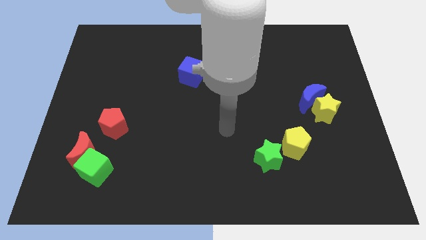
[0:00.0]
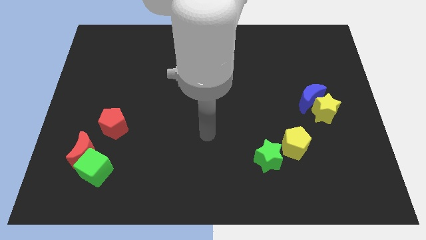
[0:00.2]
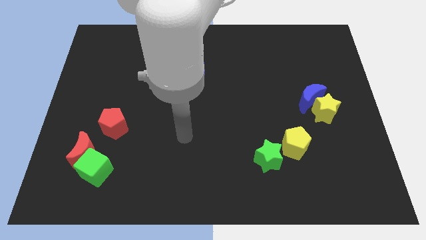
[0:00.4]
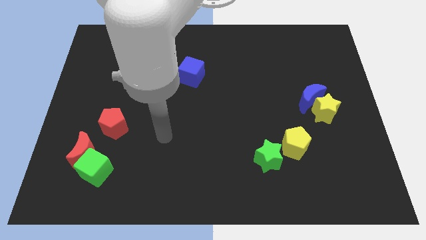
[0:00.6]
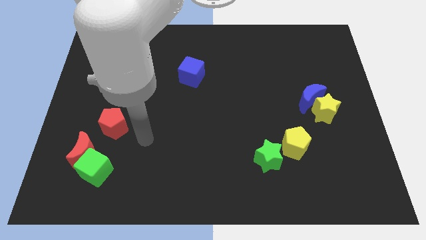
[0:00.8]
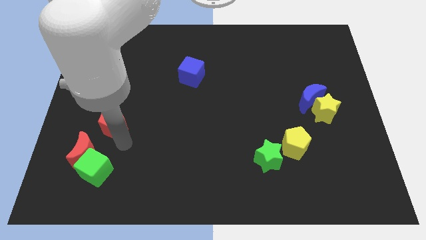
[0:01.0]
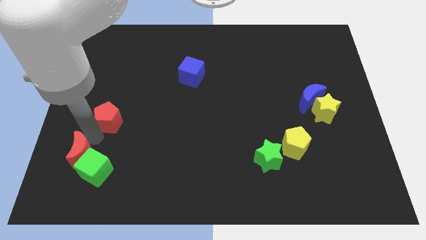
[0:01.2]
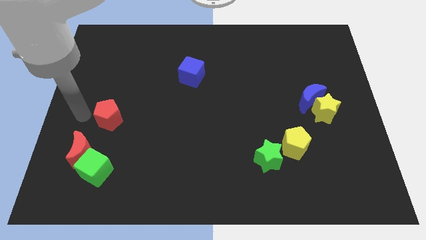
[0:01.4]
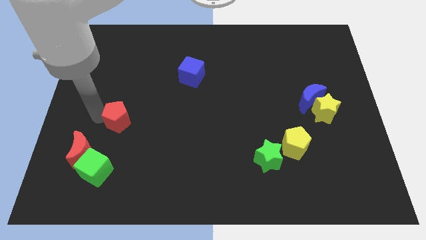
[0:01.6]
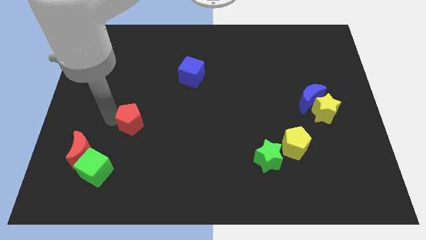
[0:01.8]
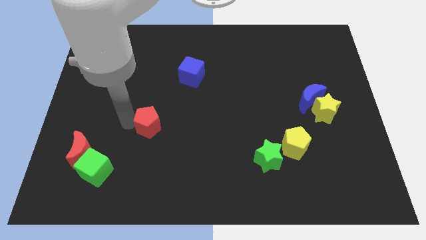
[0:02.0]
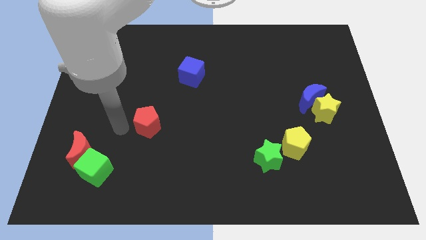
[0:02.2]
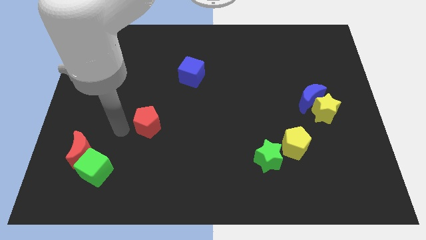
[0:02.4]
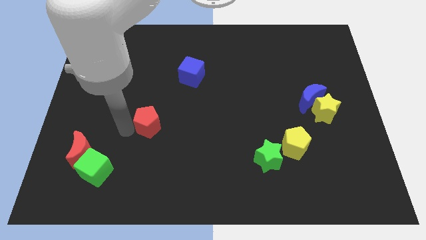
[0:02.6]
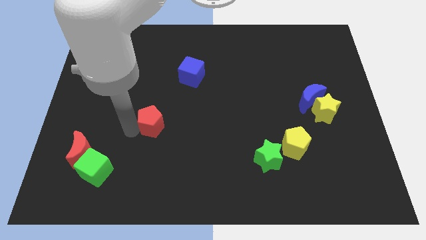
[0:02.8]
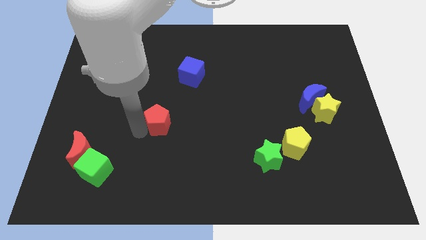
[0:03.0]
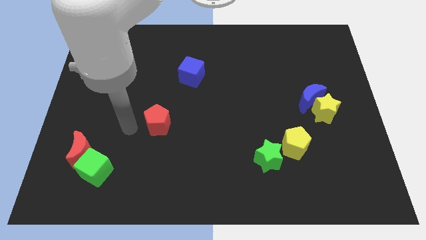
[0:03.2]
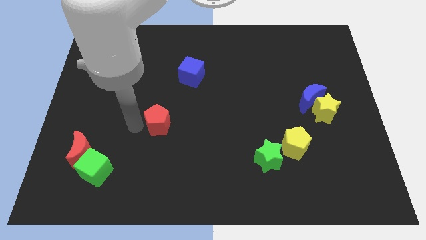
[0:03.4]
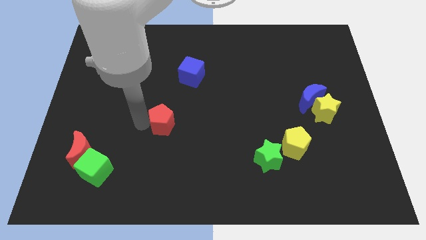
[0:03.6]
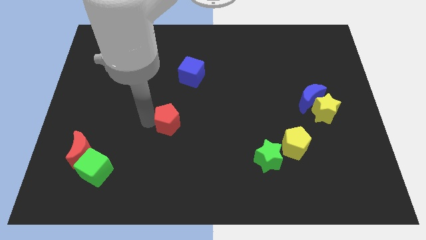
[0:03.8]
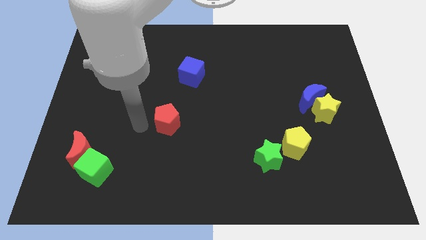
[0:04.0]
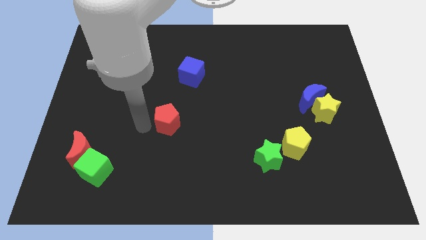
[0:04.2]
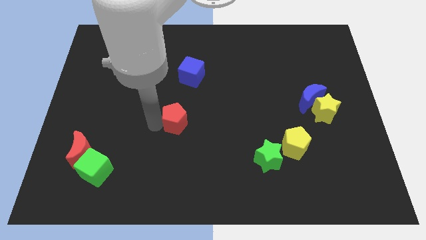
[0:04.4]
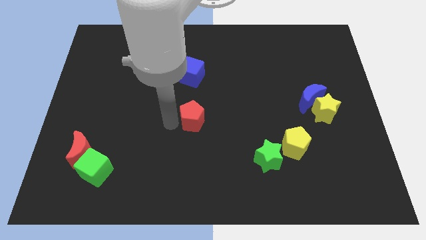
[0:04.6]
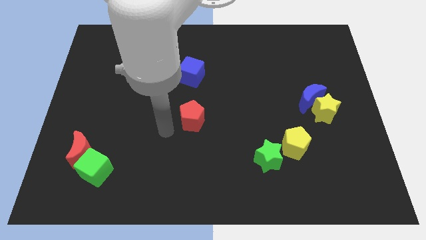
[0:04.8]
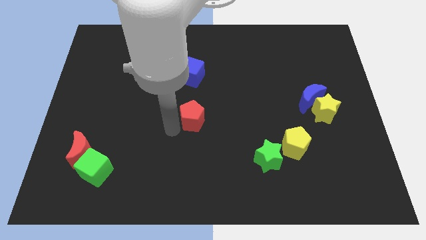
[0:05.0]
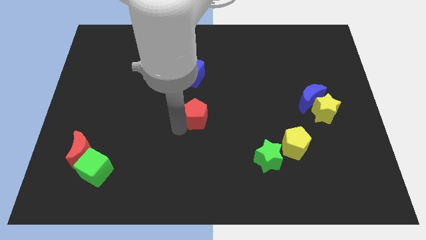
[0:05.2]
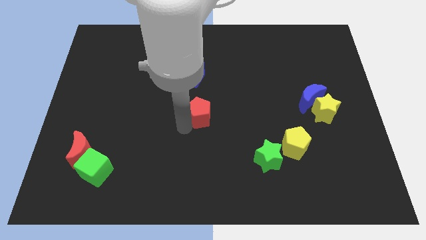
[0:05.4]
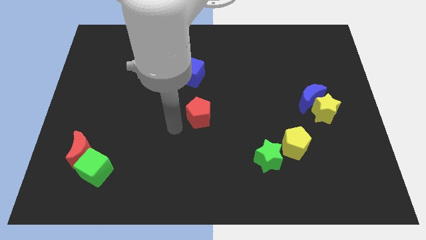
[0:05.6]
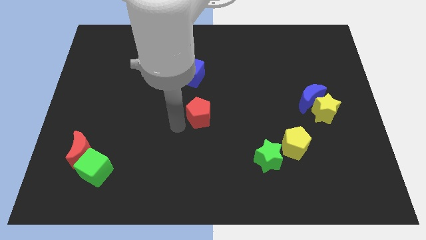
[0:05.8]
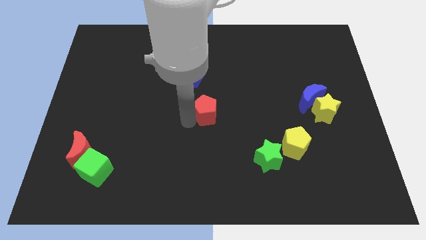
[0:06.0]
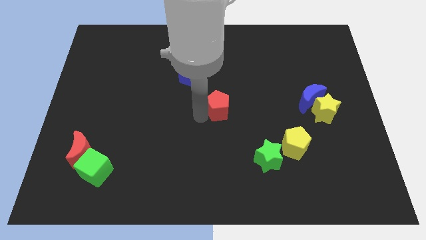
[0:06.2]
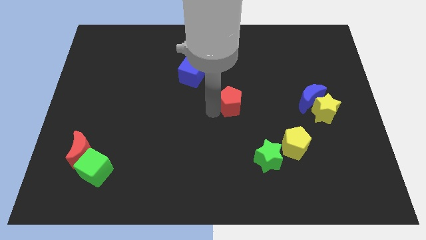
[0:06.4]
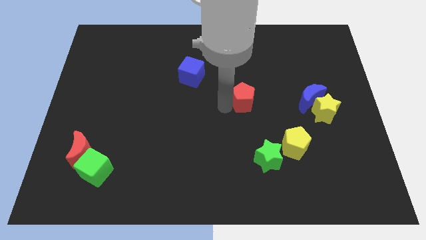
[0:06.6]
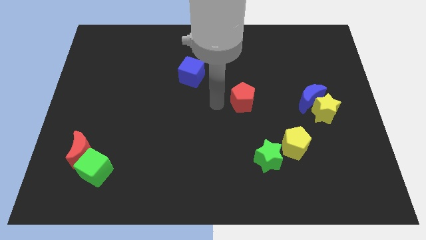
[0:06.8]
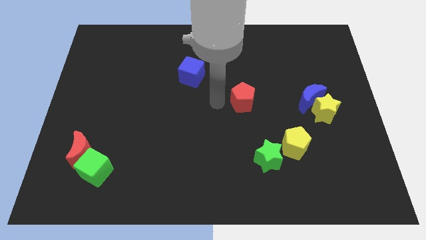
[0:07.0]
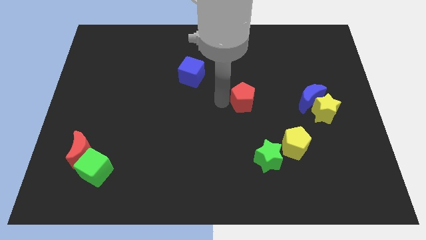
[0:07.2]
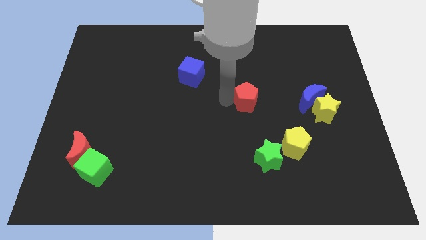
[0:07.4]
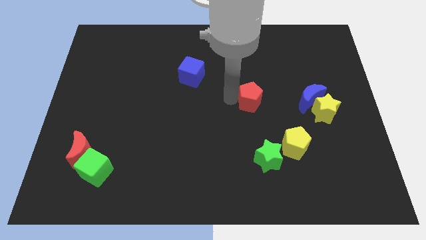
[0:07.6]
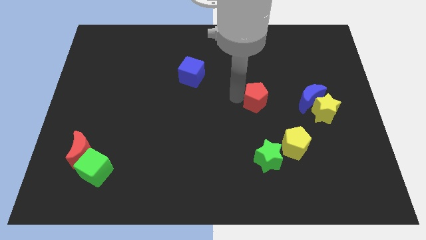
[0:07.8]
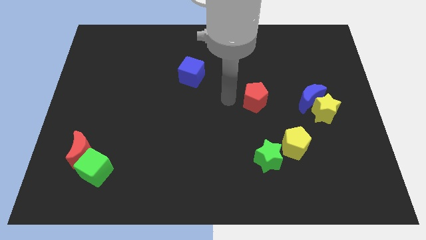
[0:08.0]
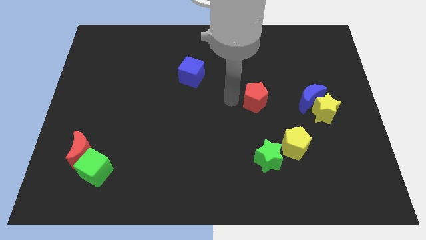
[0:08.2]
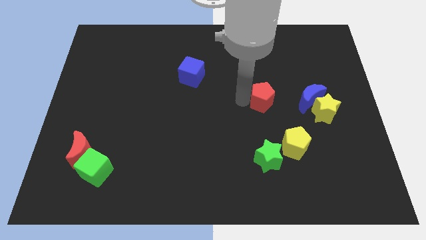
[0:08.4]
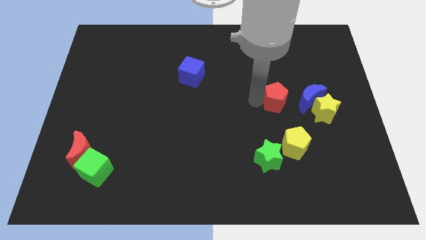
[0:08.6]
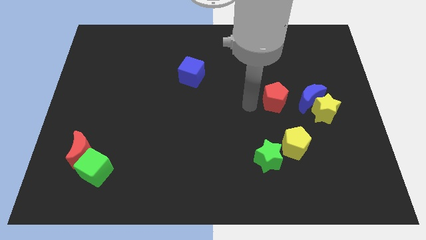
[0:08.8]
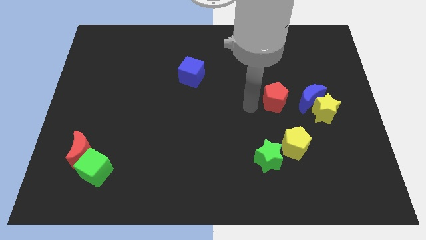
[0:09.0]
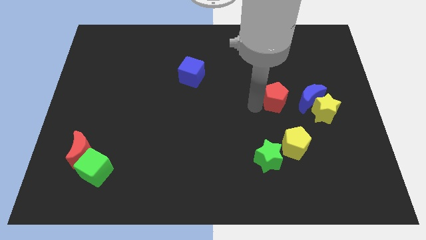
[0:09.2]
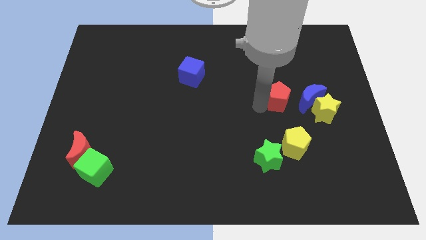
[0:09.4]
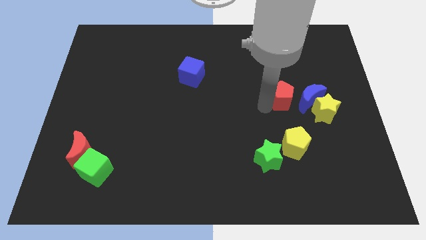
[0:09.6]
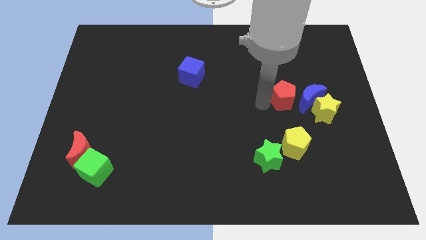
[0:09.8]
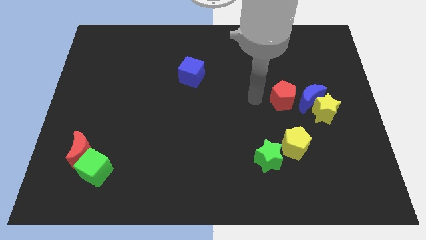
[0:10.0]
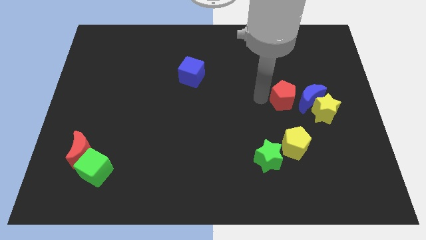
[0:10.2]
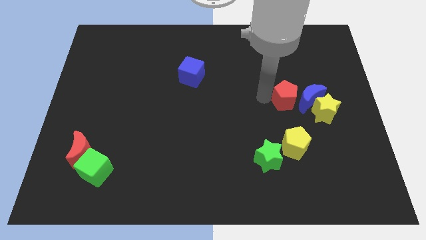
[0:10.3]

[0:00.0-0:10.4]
put the red pentagon close to the blue moon

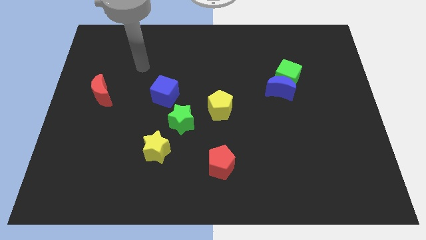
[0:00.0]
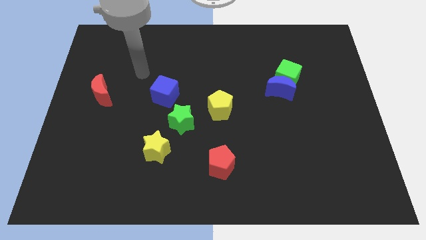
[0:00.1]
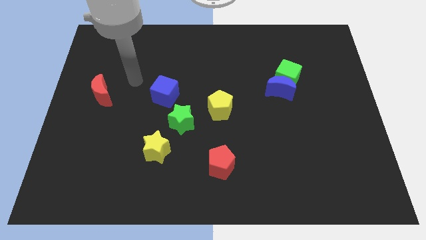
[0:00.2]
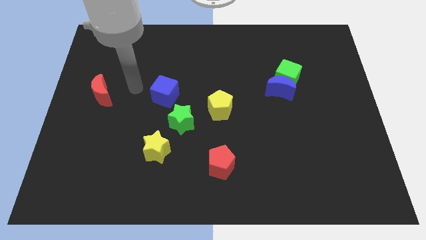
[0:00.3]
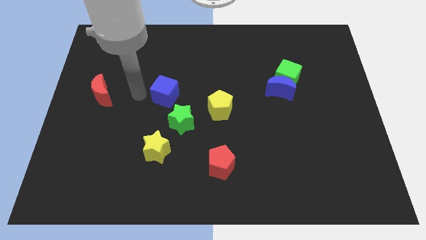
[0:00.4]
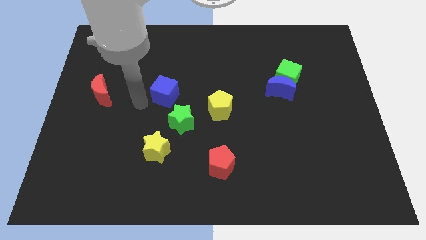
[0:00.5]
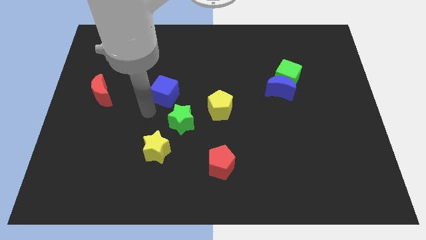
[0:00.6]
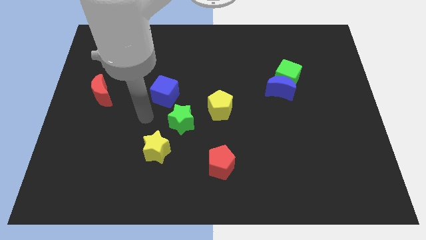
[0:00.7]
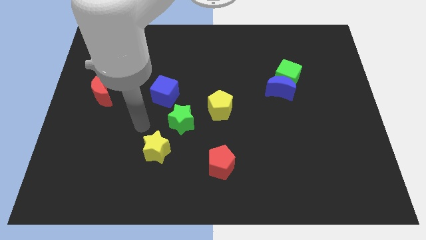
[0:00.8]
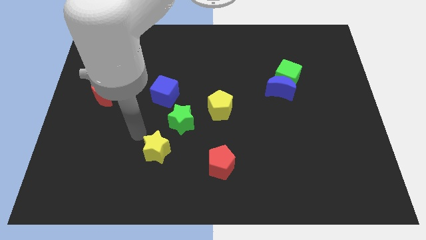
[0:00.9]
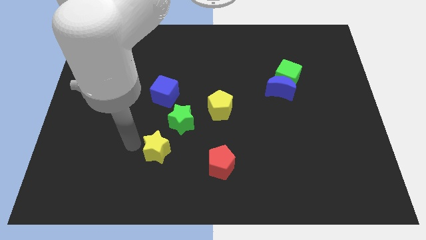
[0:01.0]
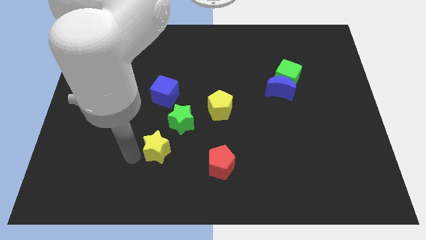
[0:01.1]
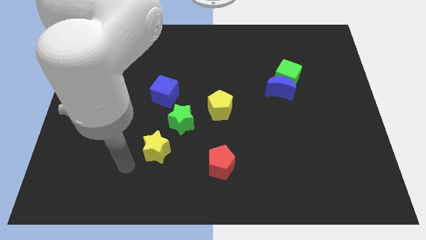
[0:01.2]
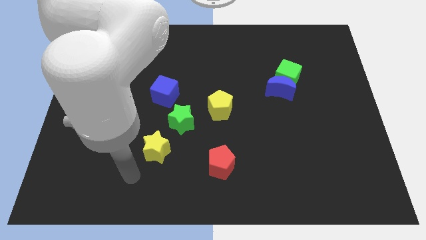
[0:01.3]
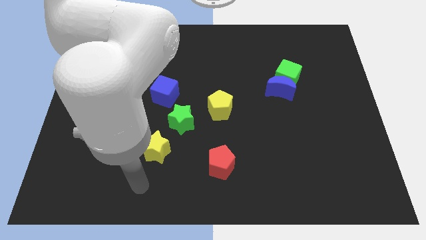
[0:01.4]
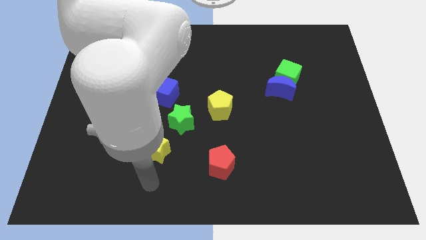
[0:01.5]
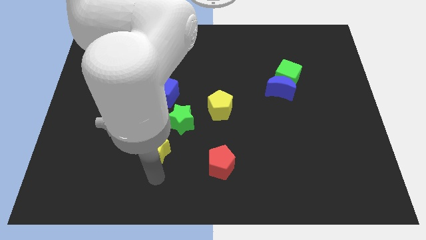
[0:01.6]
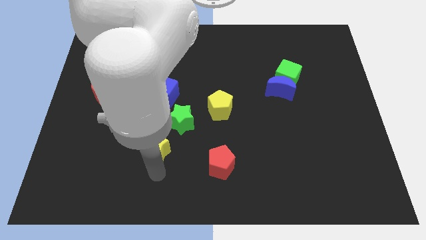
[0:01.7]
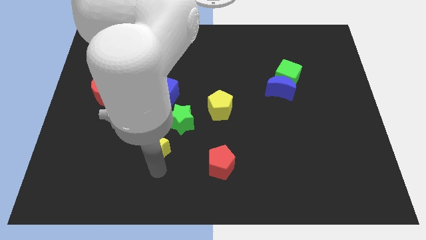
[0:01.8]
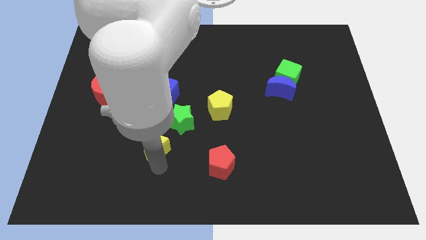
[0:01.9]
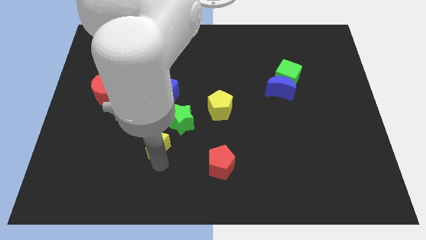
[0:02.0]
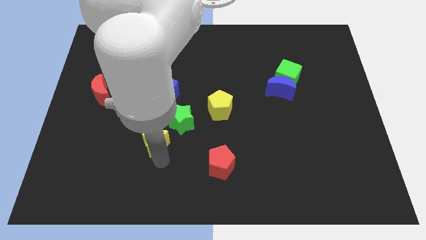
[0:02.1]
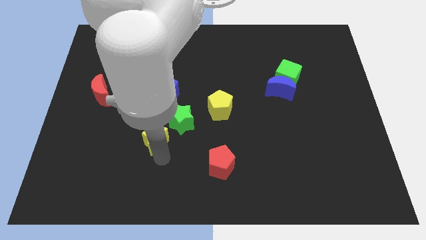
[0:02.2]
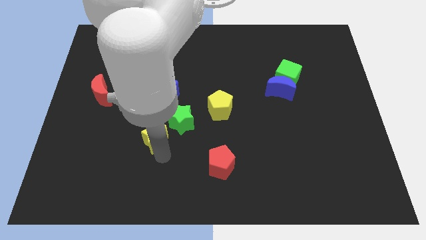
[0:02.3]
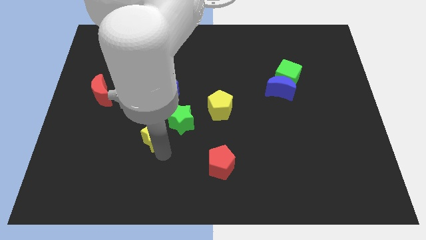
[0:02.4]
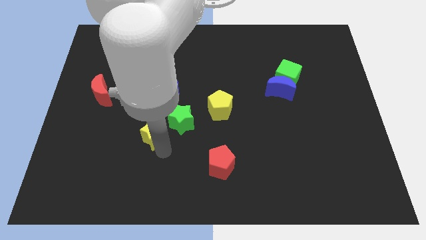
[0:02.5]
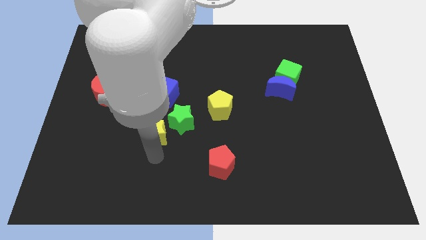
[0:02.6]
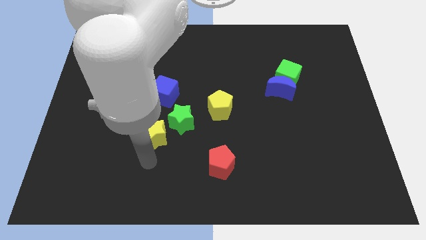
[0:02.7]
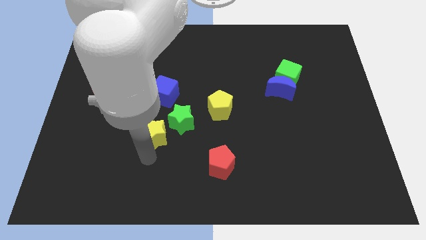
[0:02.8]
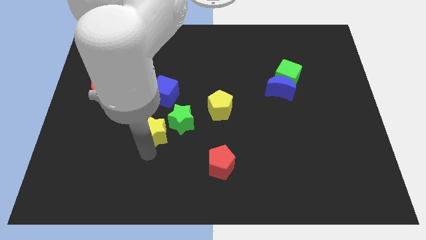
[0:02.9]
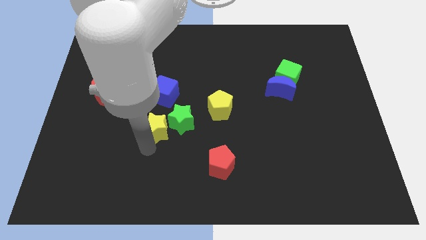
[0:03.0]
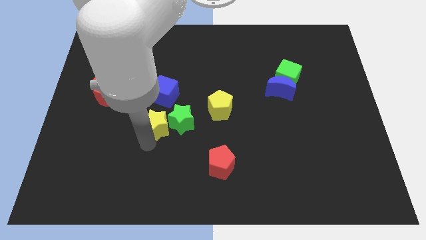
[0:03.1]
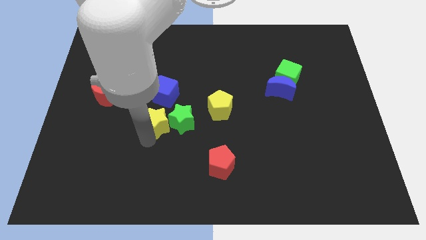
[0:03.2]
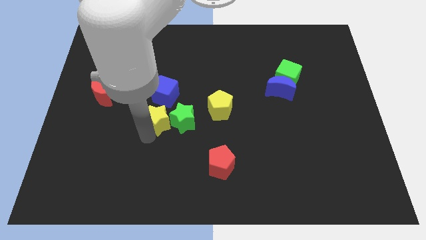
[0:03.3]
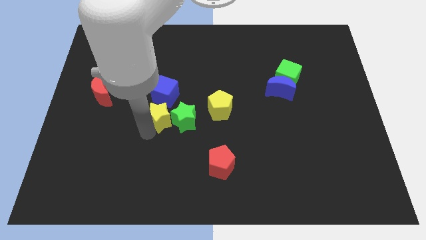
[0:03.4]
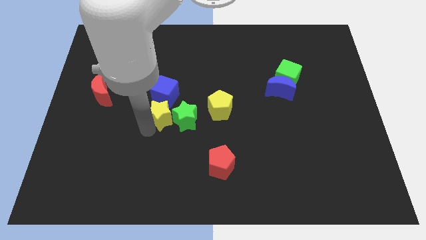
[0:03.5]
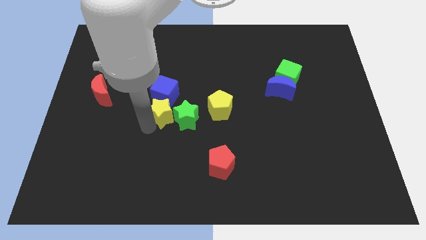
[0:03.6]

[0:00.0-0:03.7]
move the yellow star towards the blue cube
